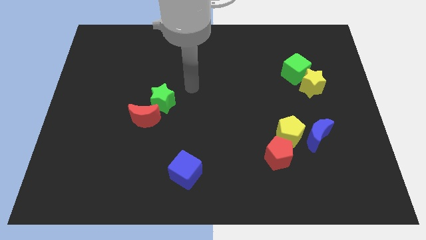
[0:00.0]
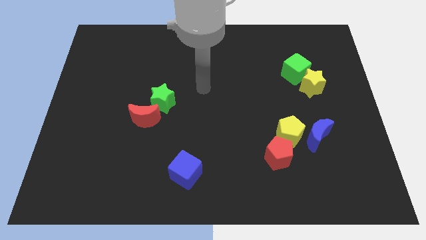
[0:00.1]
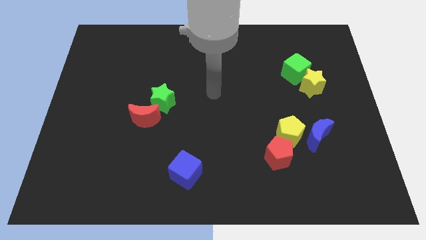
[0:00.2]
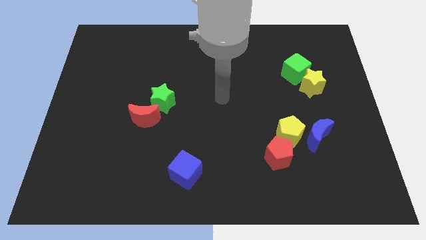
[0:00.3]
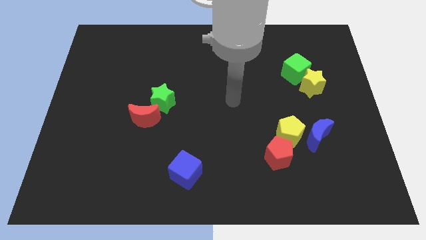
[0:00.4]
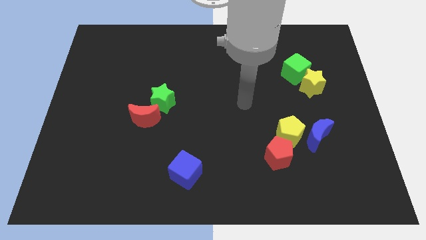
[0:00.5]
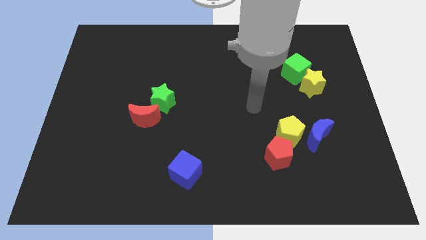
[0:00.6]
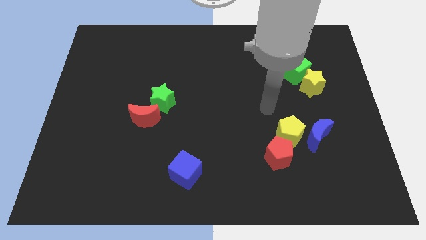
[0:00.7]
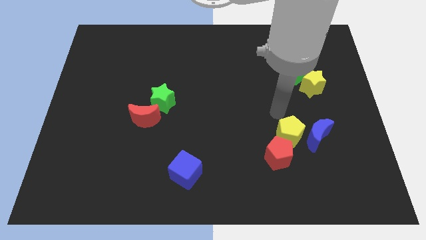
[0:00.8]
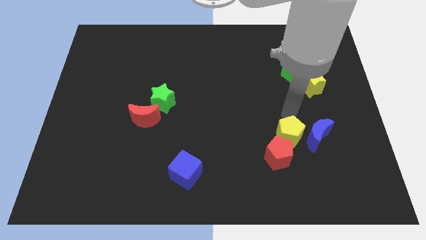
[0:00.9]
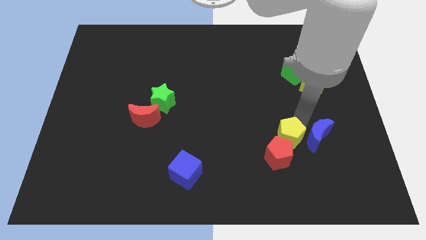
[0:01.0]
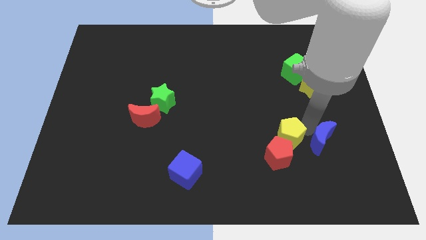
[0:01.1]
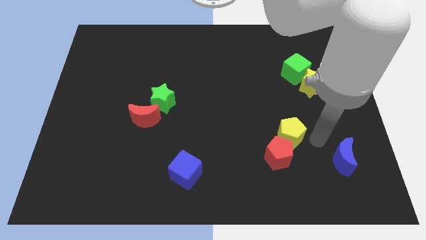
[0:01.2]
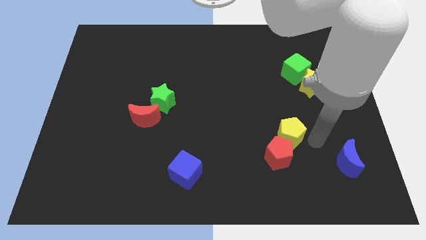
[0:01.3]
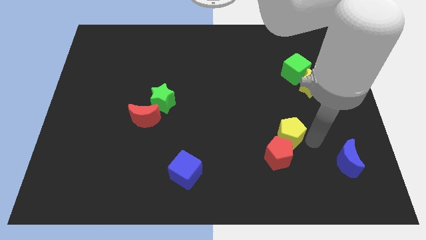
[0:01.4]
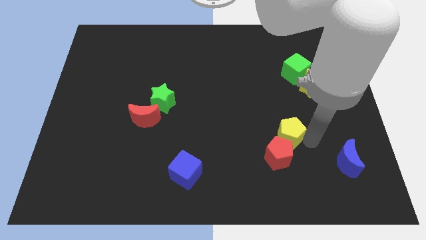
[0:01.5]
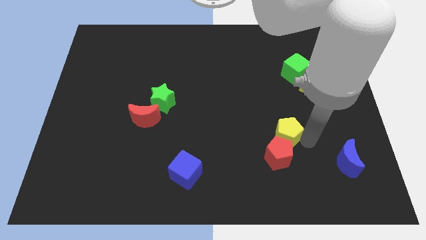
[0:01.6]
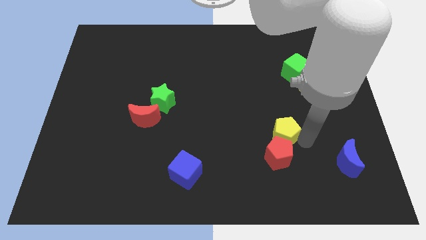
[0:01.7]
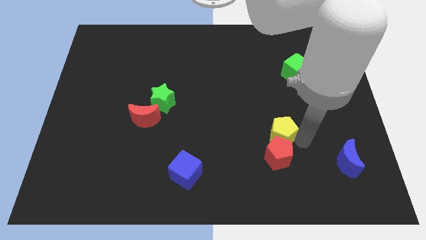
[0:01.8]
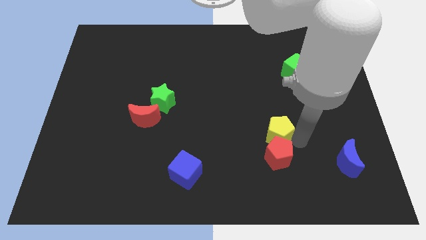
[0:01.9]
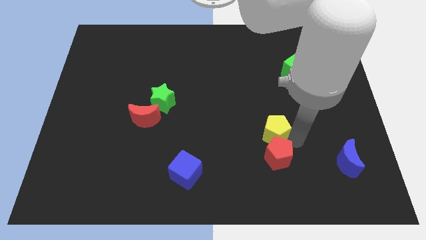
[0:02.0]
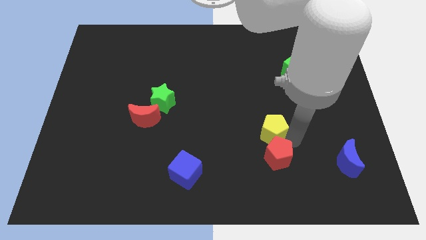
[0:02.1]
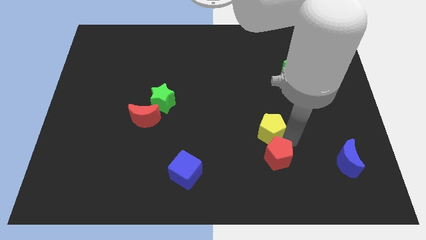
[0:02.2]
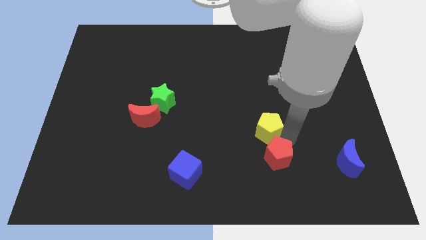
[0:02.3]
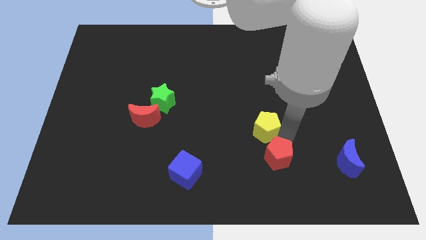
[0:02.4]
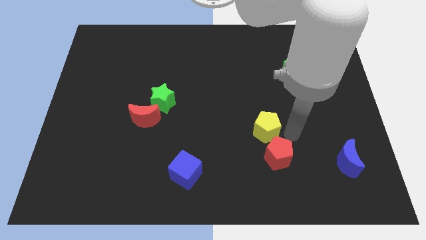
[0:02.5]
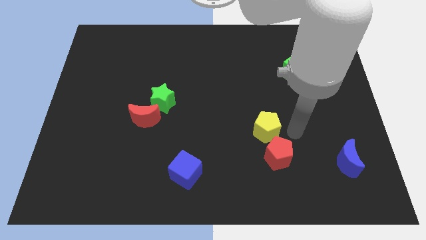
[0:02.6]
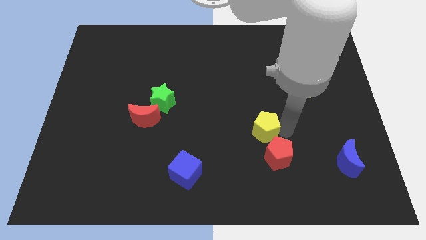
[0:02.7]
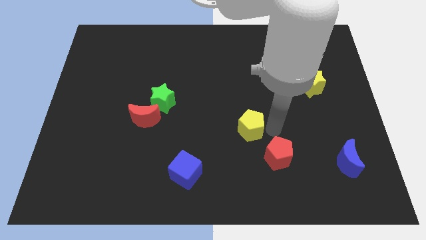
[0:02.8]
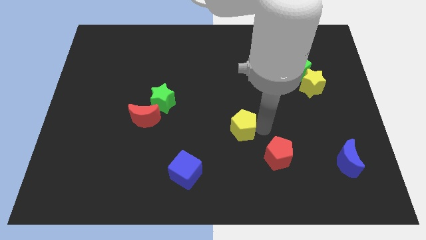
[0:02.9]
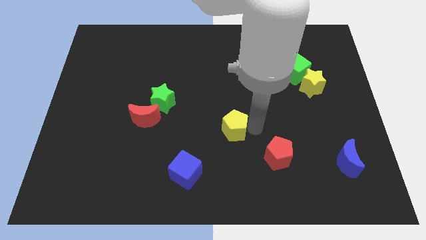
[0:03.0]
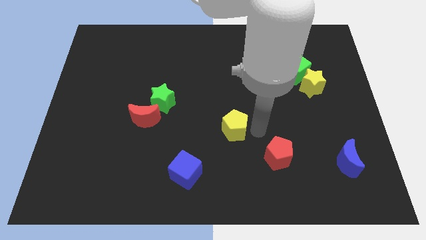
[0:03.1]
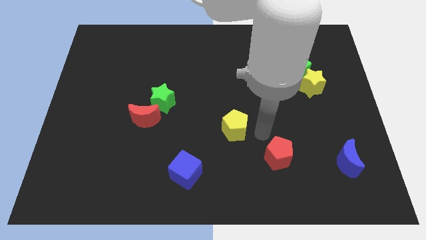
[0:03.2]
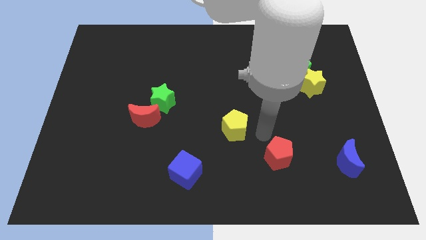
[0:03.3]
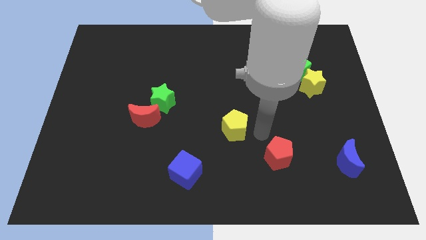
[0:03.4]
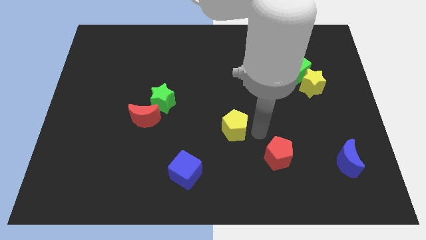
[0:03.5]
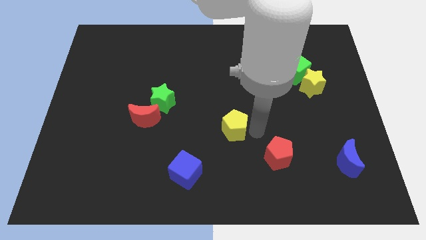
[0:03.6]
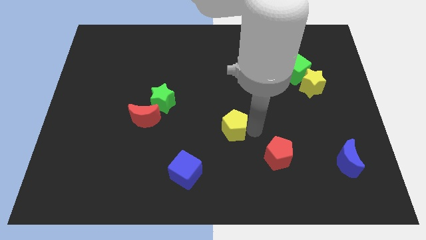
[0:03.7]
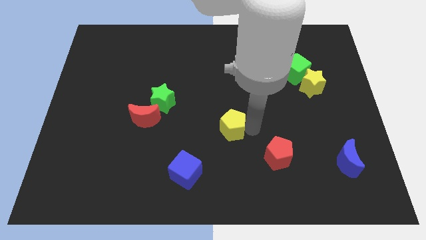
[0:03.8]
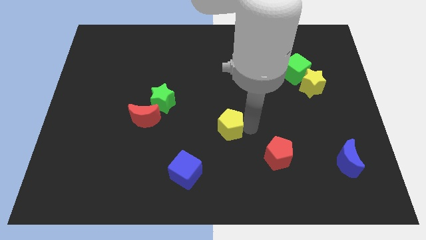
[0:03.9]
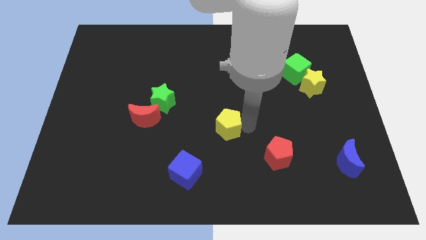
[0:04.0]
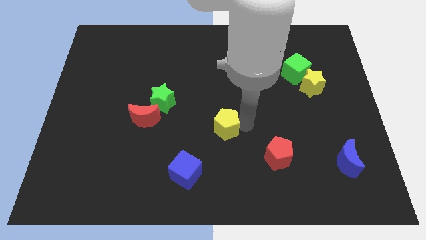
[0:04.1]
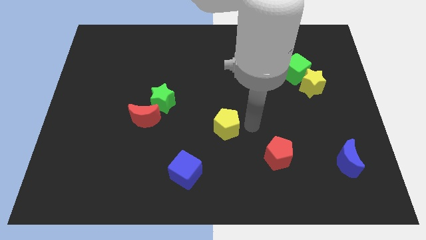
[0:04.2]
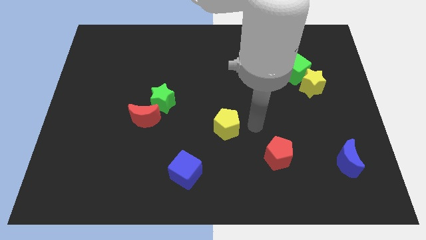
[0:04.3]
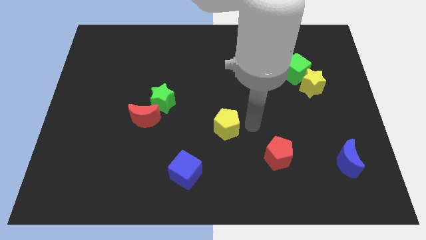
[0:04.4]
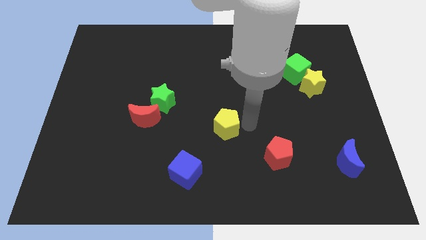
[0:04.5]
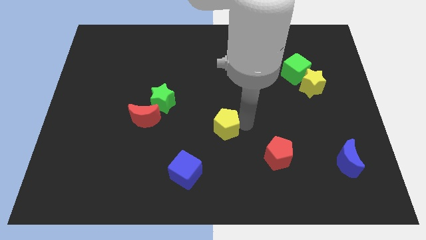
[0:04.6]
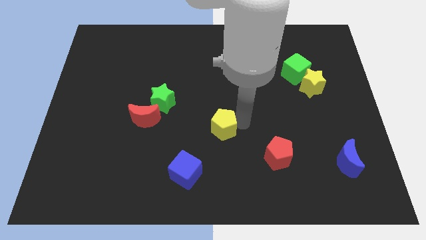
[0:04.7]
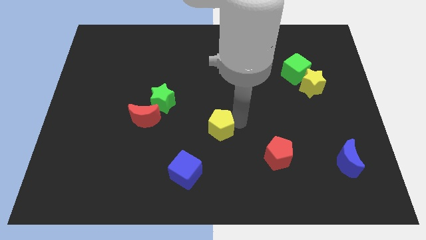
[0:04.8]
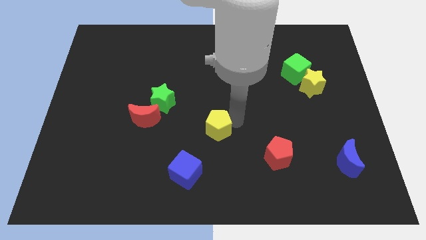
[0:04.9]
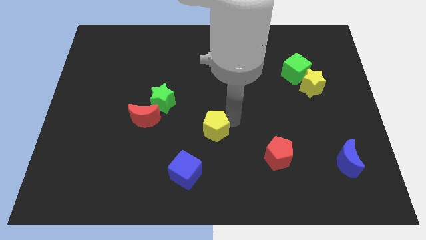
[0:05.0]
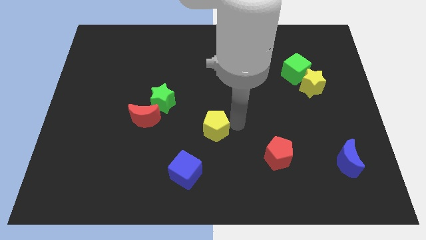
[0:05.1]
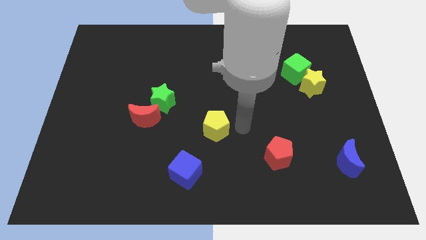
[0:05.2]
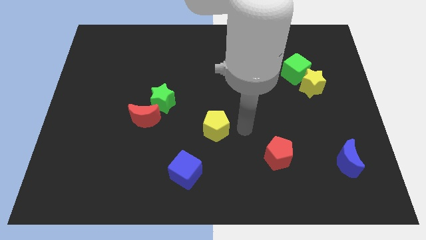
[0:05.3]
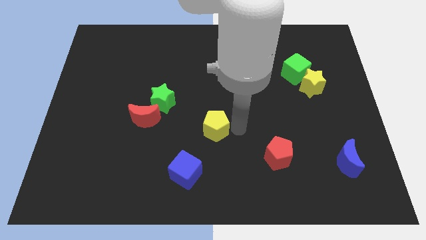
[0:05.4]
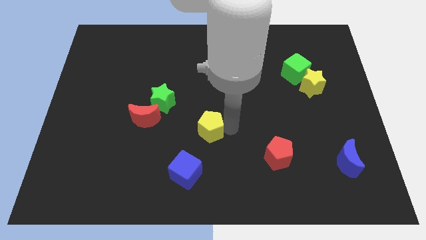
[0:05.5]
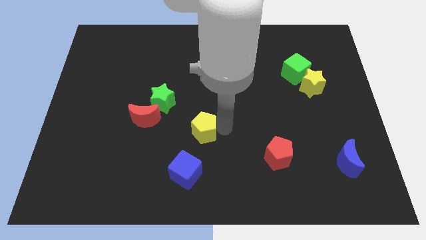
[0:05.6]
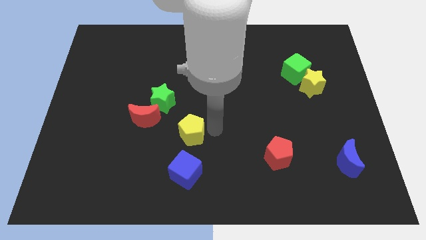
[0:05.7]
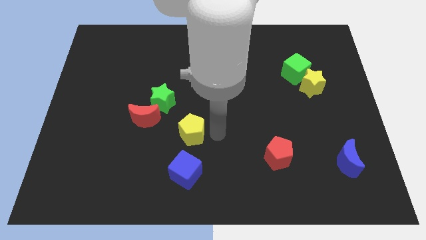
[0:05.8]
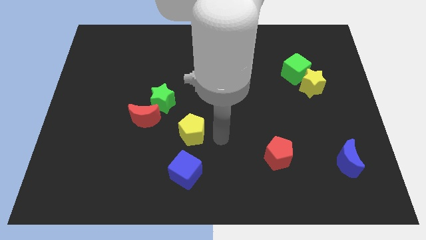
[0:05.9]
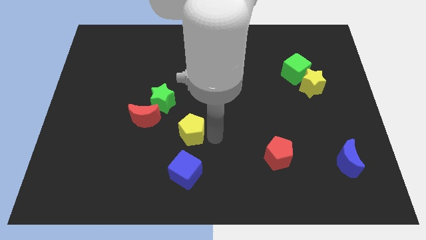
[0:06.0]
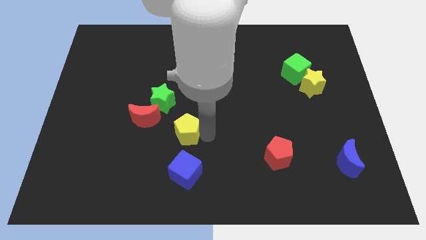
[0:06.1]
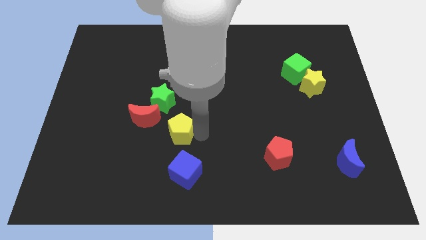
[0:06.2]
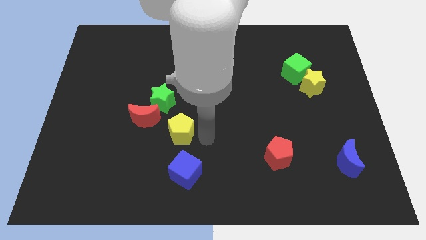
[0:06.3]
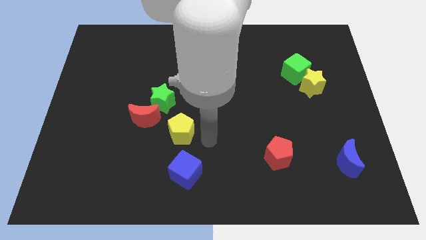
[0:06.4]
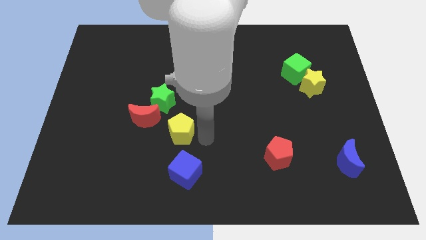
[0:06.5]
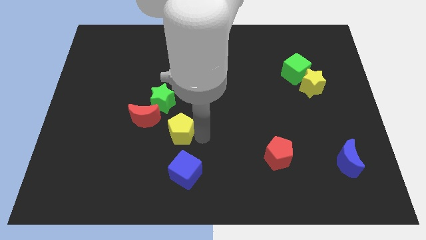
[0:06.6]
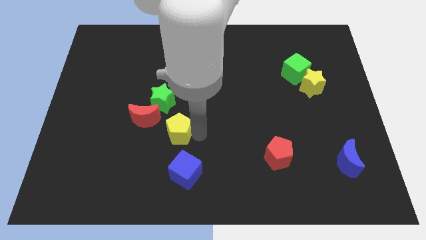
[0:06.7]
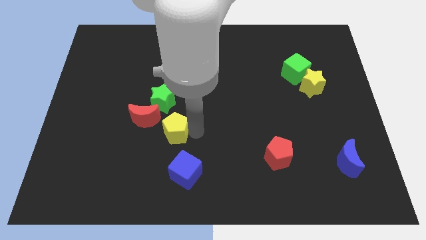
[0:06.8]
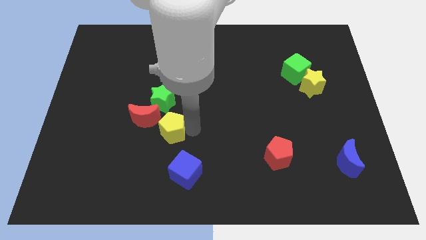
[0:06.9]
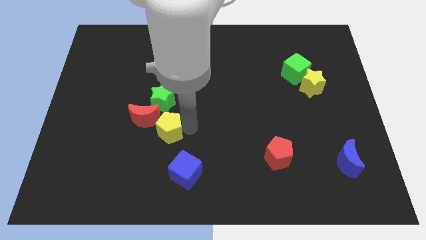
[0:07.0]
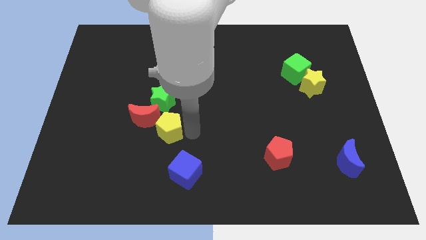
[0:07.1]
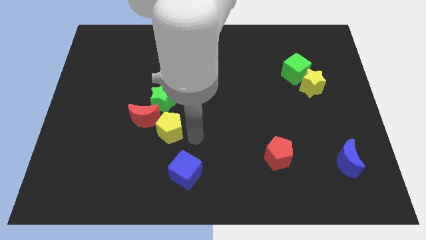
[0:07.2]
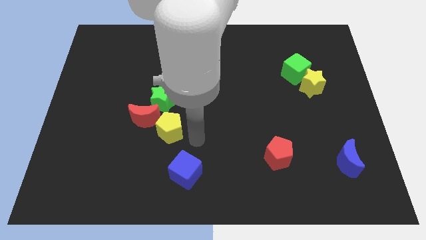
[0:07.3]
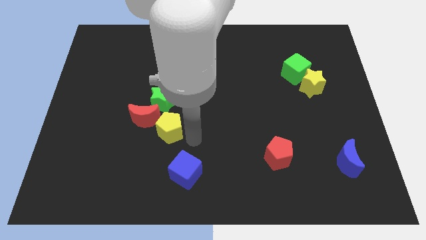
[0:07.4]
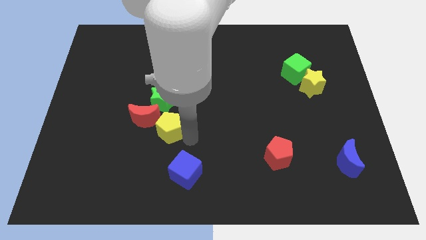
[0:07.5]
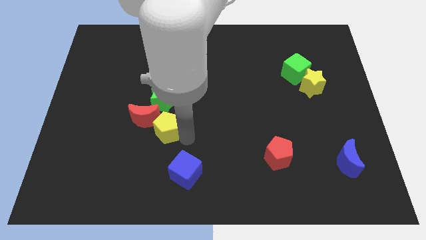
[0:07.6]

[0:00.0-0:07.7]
put the yellow pentagon towards the red moon
